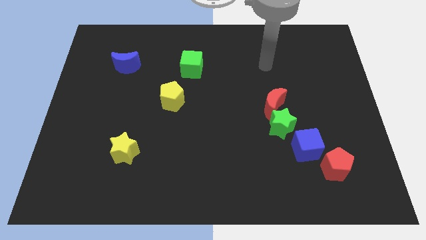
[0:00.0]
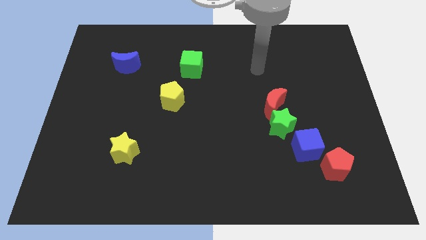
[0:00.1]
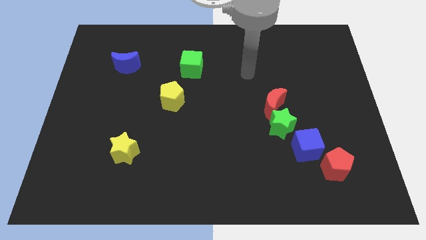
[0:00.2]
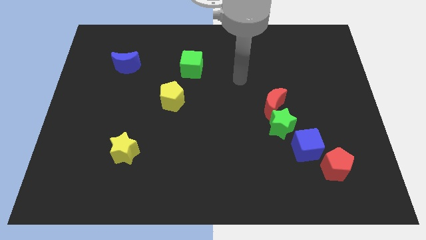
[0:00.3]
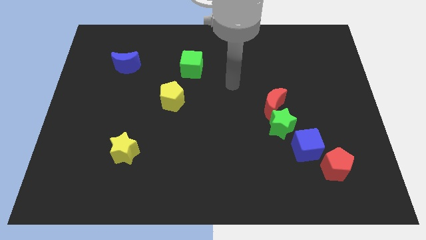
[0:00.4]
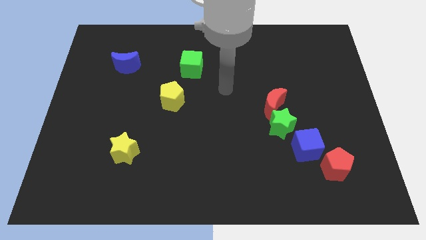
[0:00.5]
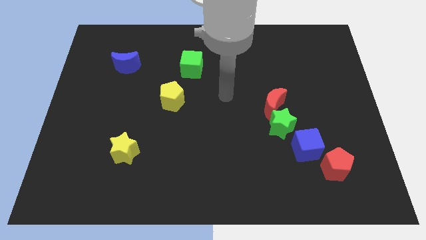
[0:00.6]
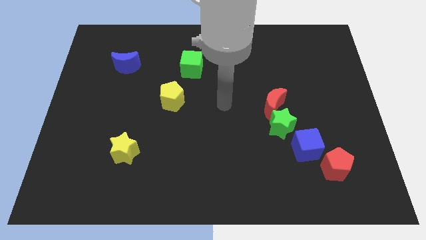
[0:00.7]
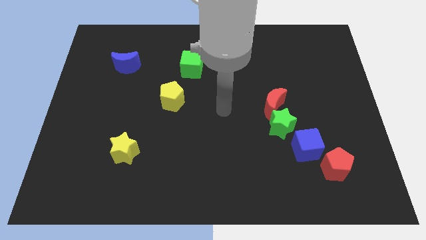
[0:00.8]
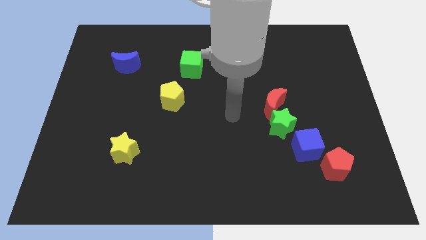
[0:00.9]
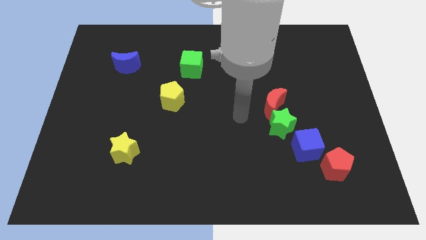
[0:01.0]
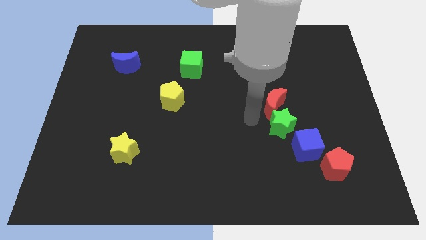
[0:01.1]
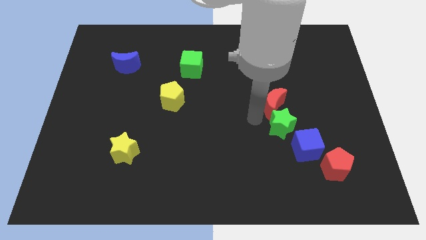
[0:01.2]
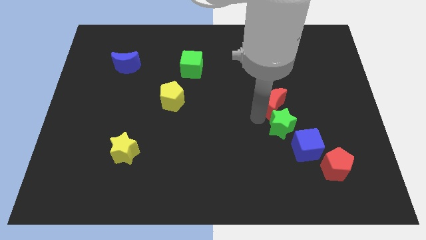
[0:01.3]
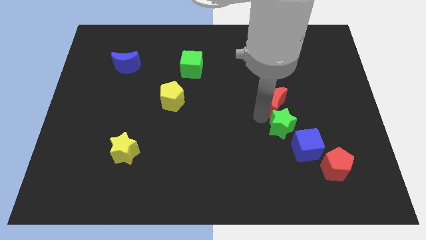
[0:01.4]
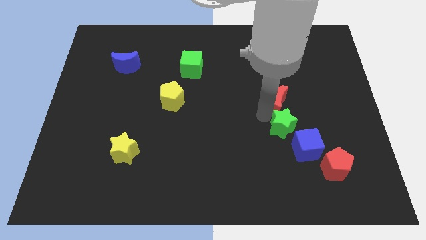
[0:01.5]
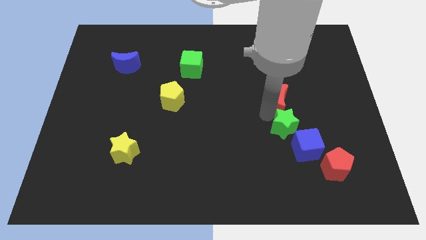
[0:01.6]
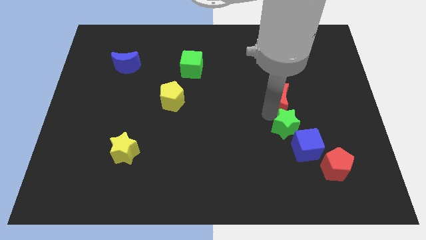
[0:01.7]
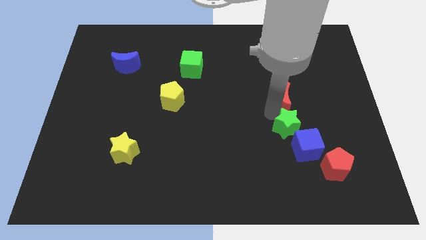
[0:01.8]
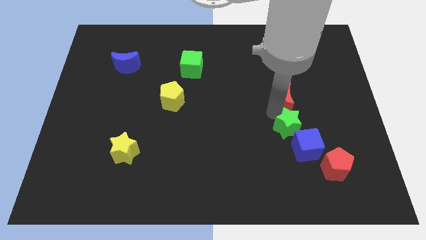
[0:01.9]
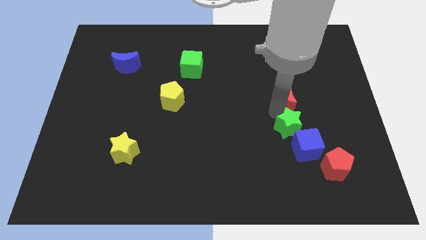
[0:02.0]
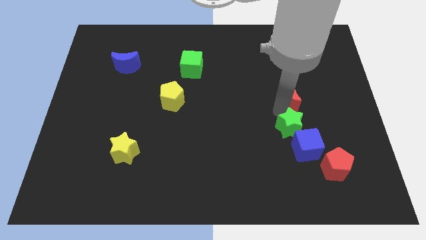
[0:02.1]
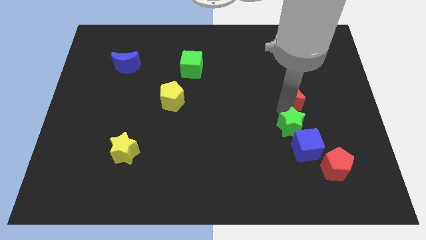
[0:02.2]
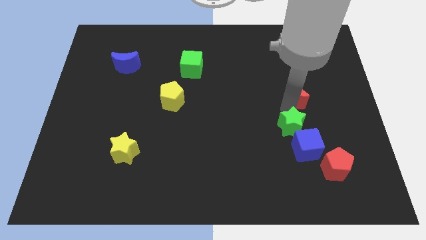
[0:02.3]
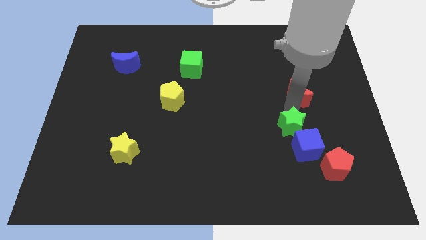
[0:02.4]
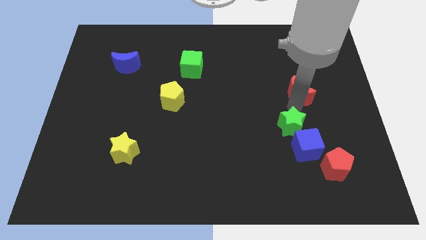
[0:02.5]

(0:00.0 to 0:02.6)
push the red moon slightly up and to the right diagonally

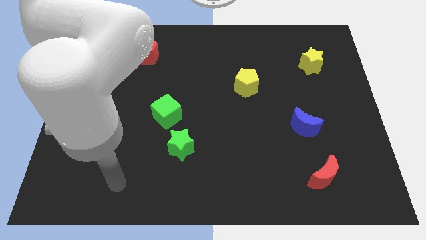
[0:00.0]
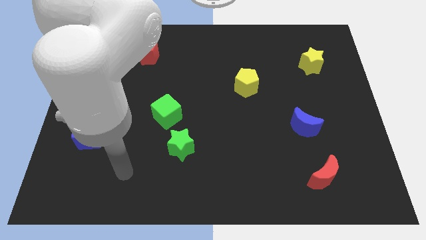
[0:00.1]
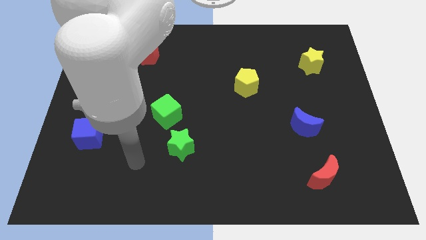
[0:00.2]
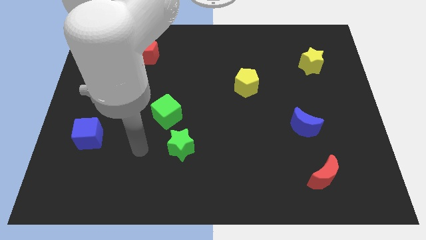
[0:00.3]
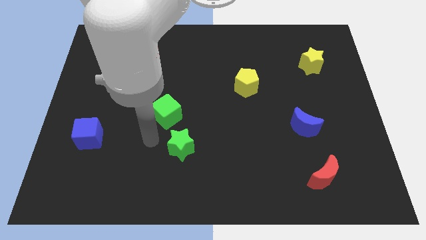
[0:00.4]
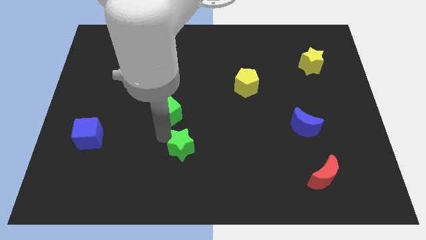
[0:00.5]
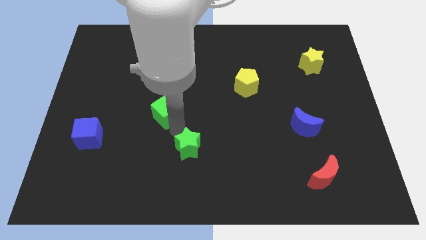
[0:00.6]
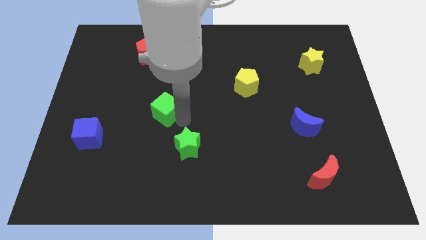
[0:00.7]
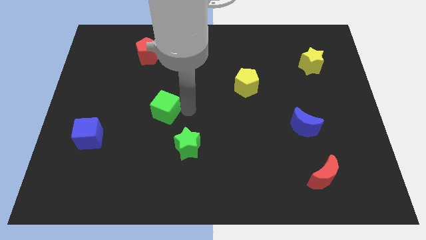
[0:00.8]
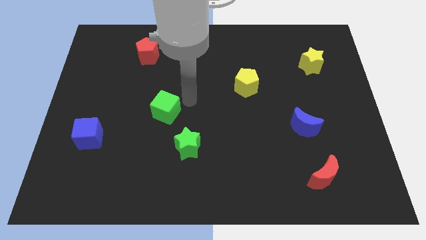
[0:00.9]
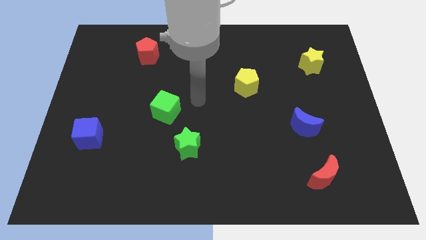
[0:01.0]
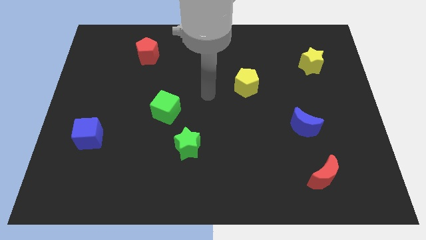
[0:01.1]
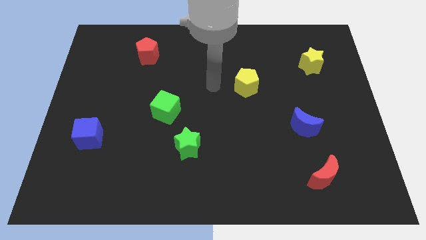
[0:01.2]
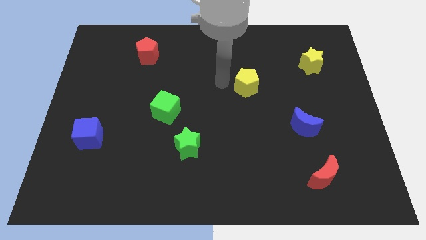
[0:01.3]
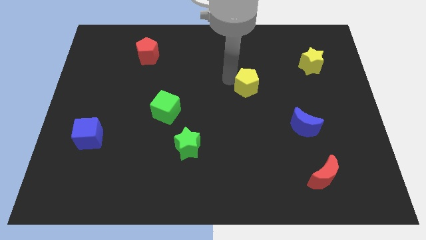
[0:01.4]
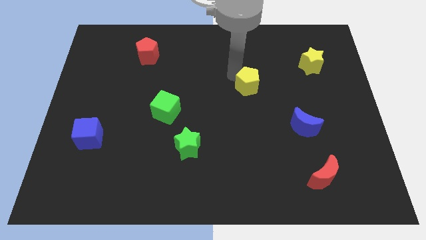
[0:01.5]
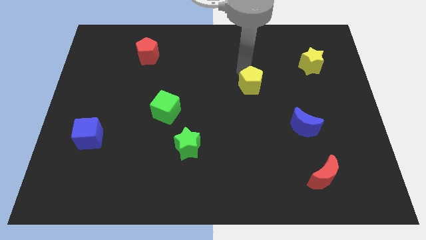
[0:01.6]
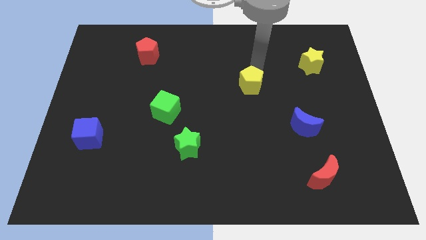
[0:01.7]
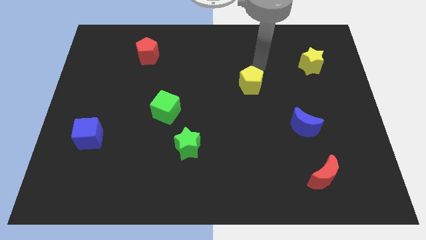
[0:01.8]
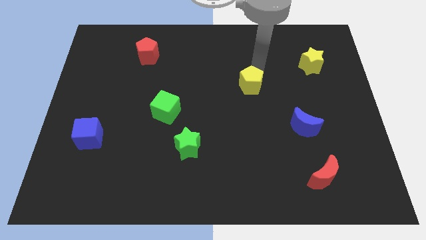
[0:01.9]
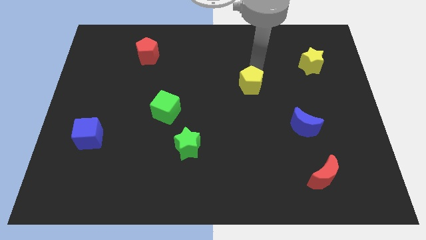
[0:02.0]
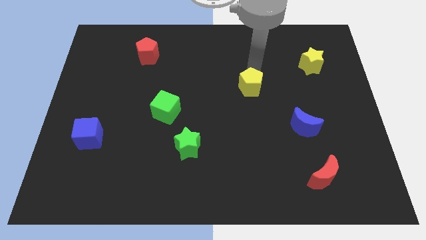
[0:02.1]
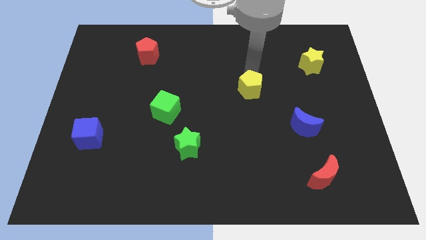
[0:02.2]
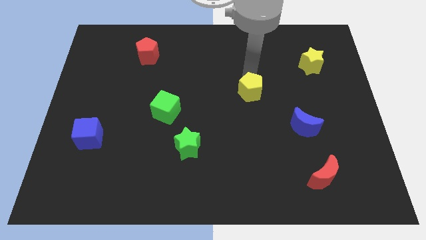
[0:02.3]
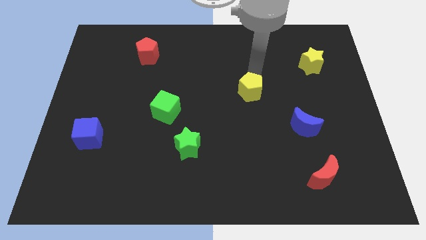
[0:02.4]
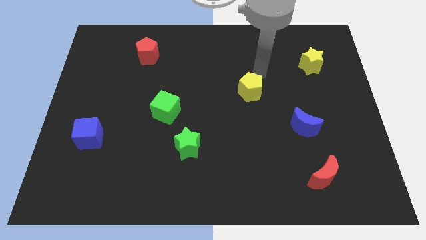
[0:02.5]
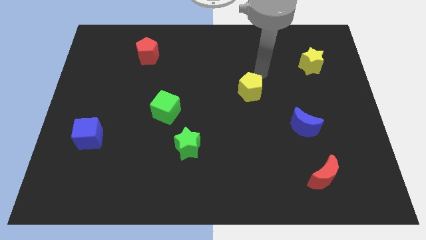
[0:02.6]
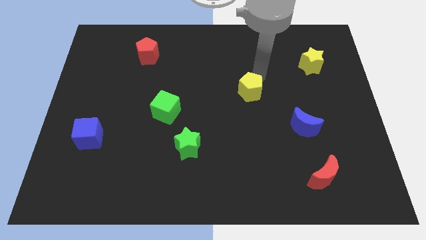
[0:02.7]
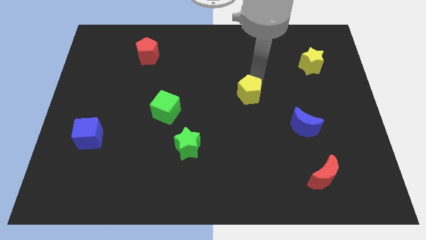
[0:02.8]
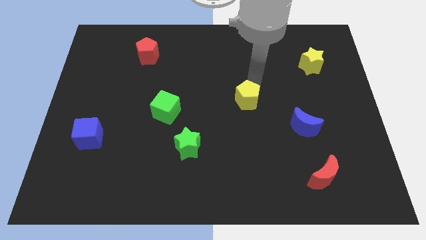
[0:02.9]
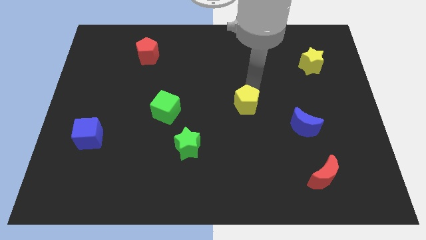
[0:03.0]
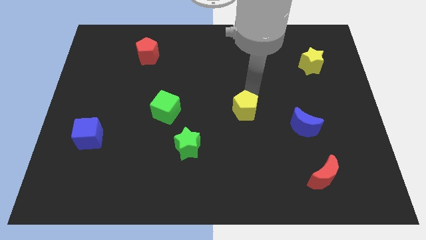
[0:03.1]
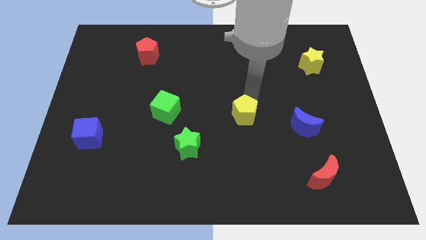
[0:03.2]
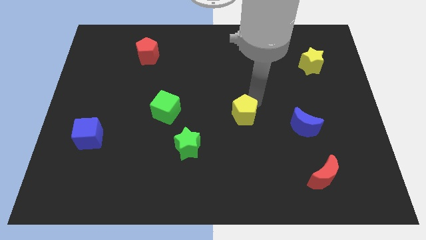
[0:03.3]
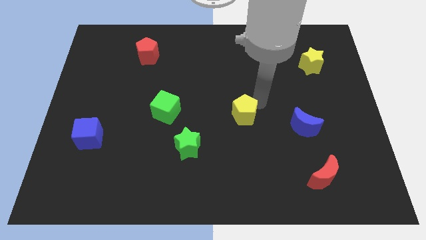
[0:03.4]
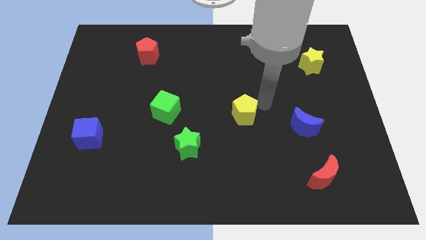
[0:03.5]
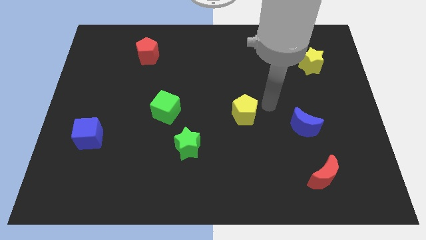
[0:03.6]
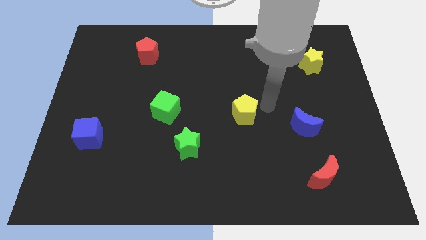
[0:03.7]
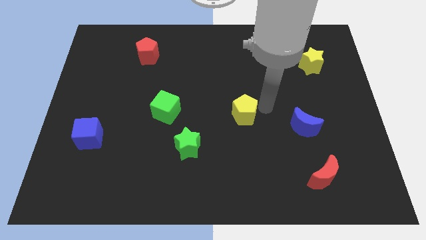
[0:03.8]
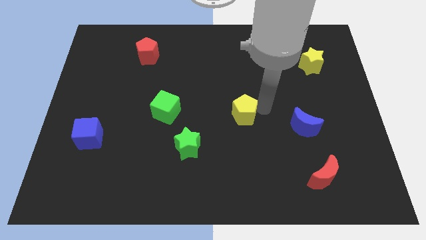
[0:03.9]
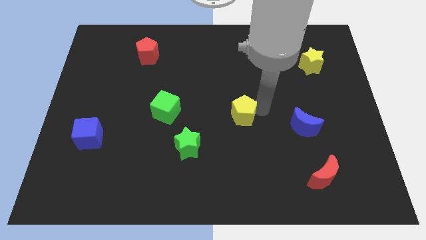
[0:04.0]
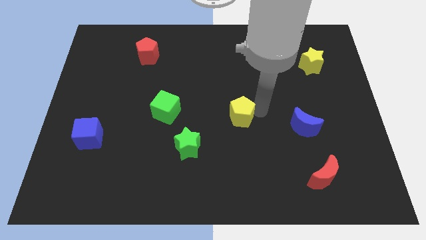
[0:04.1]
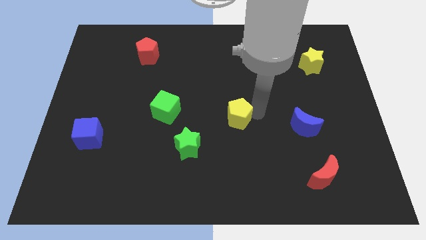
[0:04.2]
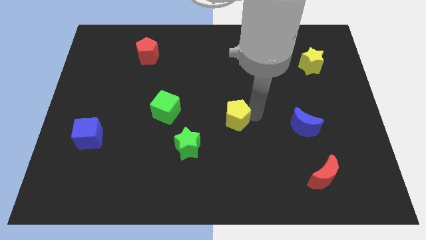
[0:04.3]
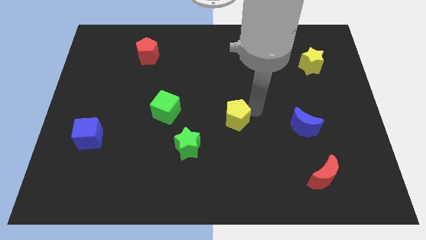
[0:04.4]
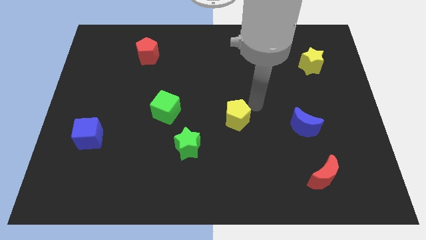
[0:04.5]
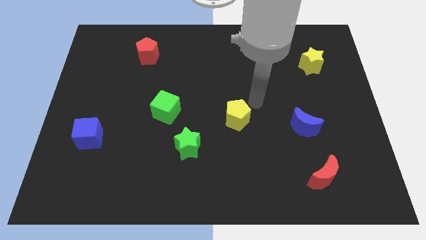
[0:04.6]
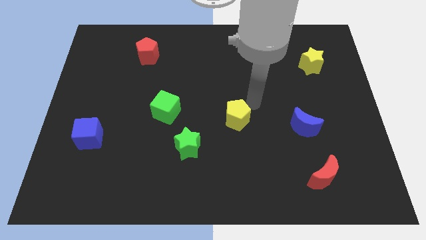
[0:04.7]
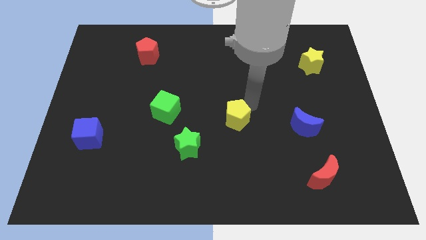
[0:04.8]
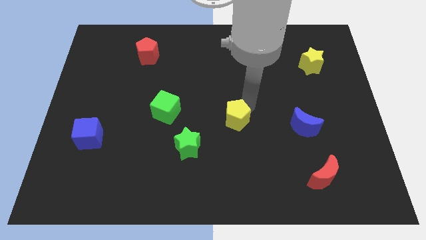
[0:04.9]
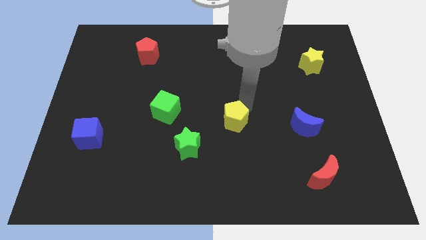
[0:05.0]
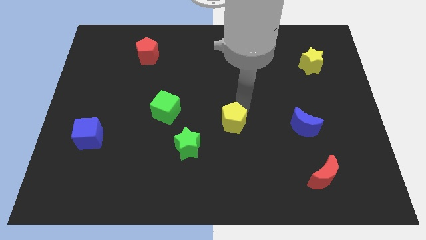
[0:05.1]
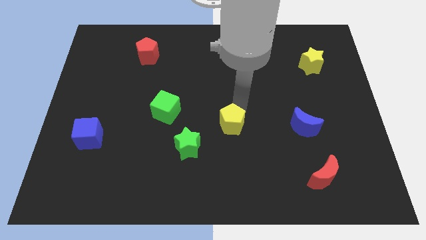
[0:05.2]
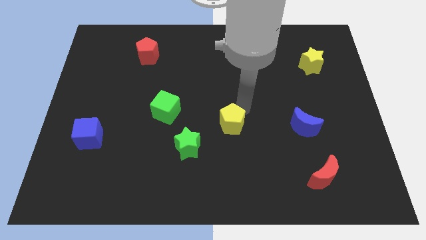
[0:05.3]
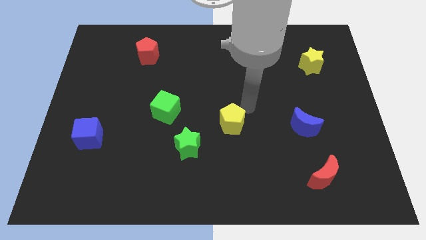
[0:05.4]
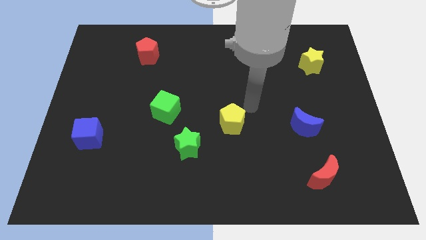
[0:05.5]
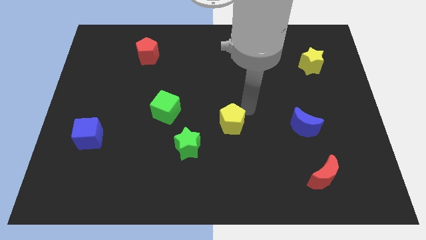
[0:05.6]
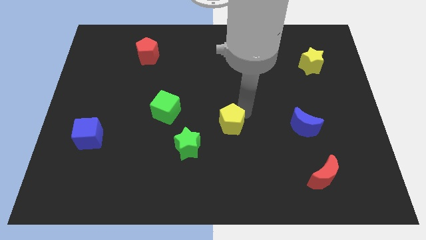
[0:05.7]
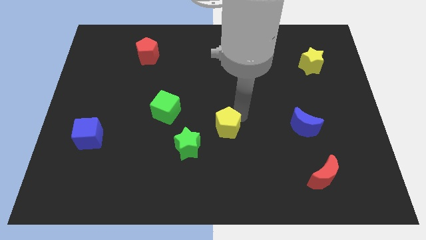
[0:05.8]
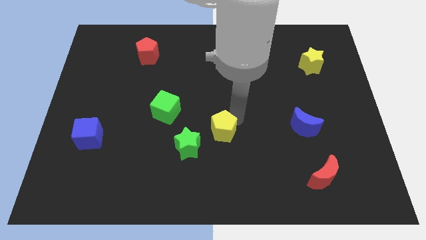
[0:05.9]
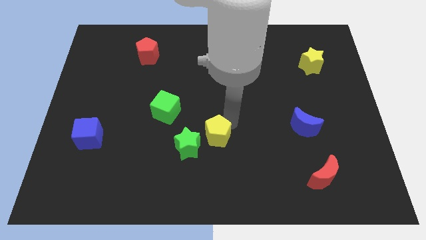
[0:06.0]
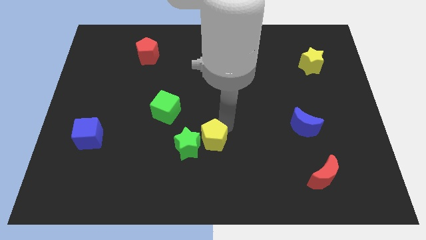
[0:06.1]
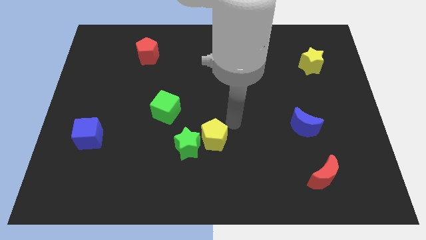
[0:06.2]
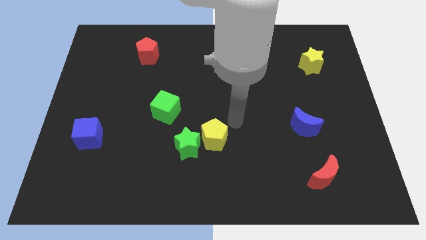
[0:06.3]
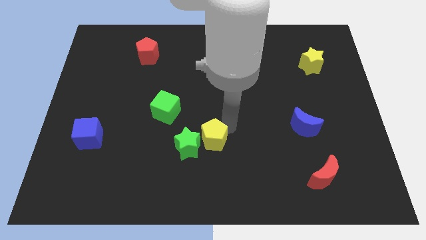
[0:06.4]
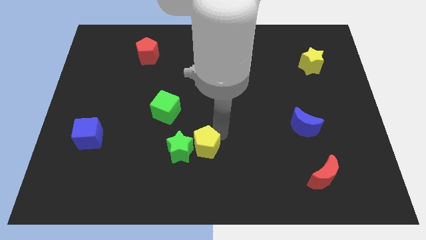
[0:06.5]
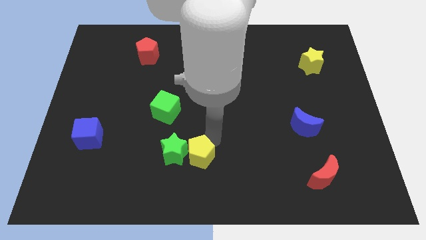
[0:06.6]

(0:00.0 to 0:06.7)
move the yellow pentagon down and to the left diagonally
